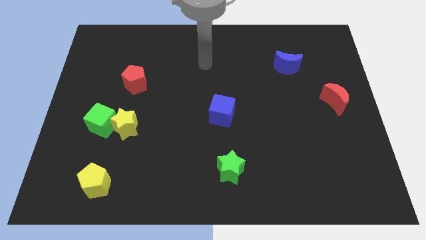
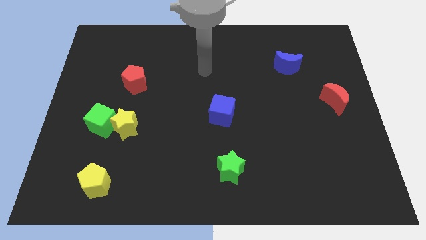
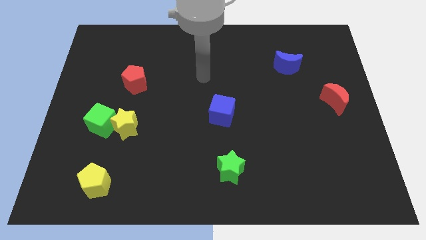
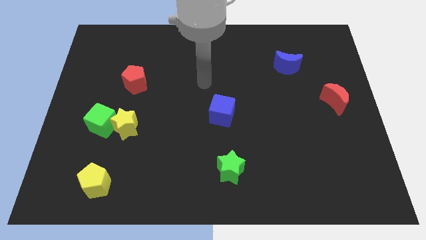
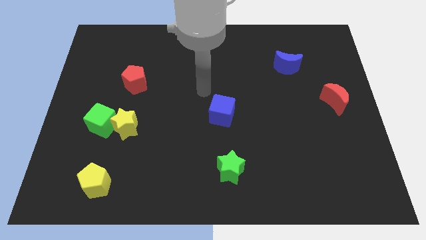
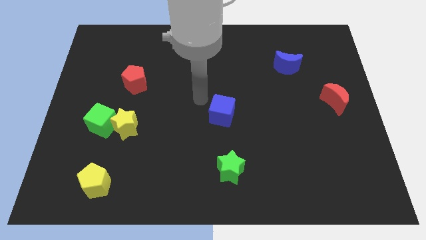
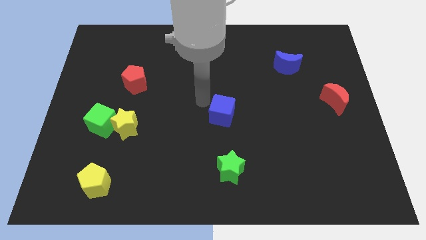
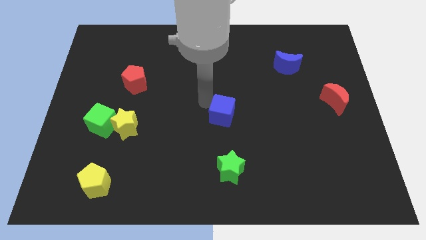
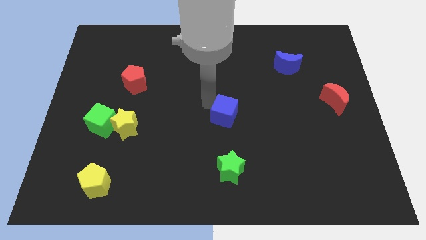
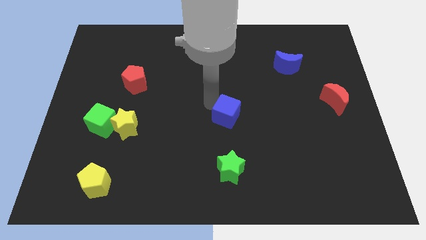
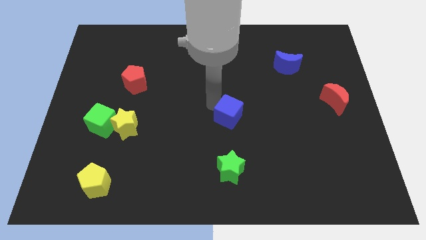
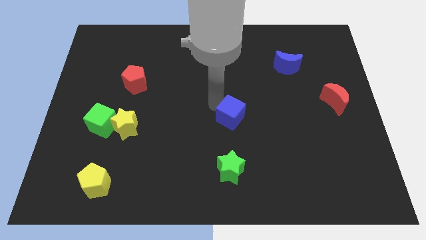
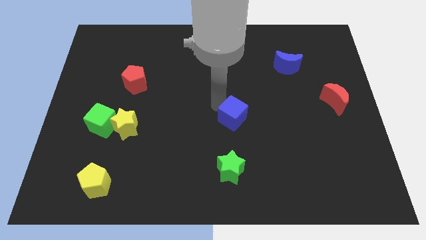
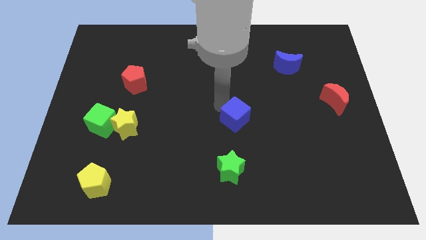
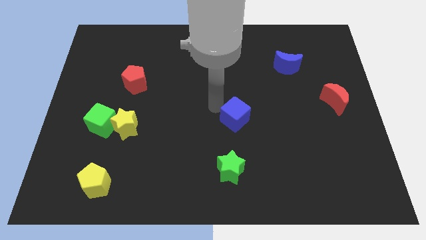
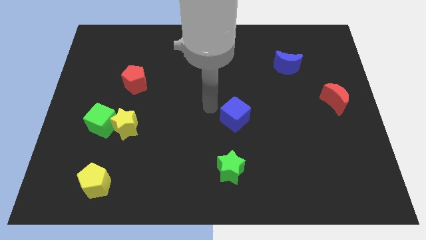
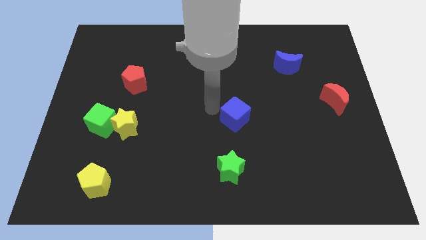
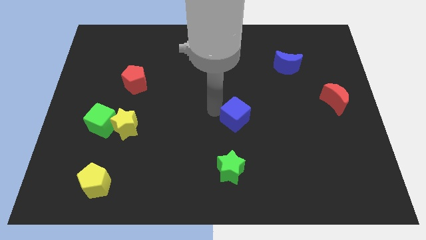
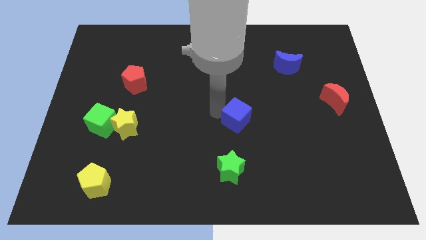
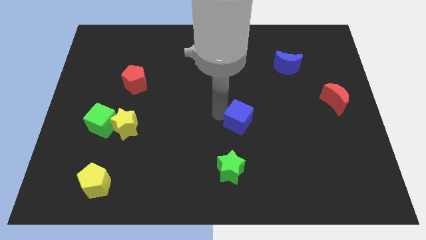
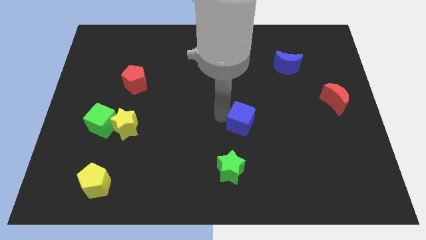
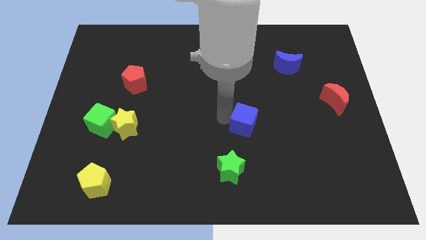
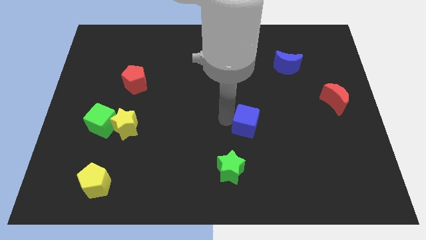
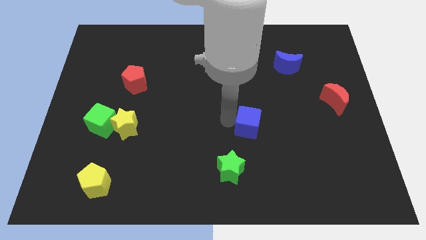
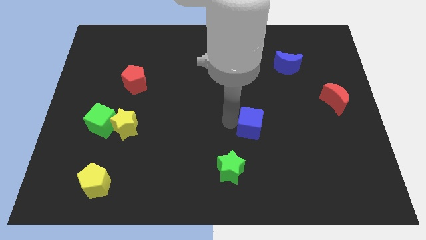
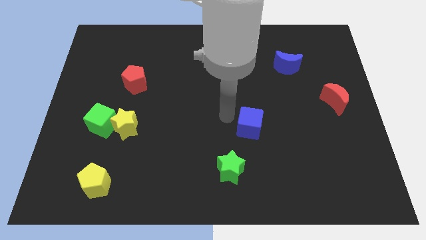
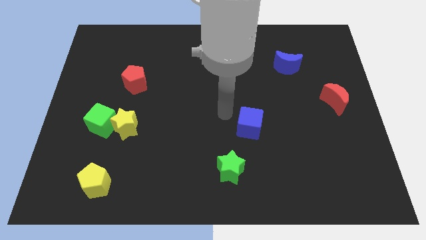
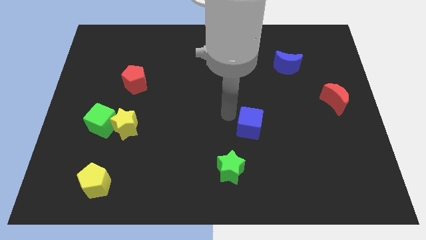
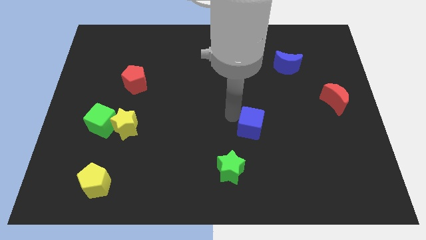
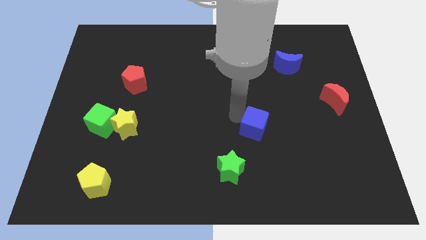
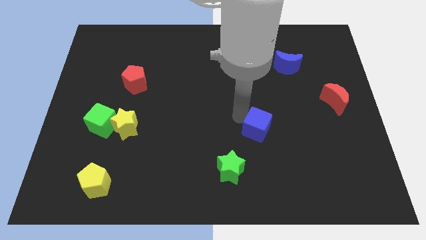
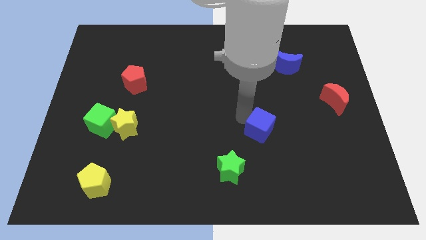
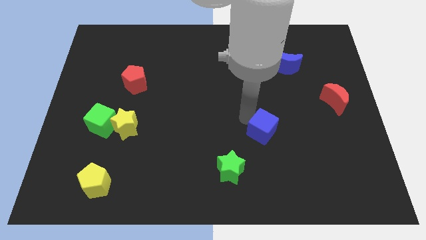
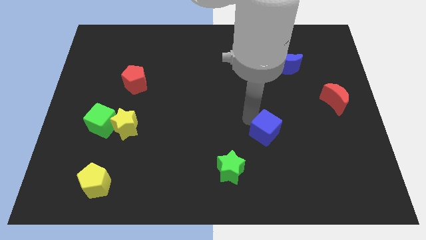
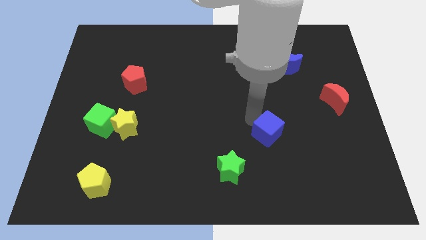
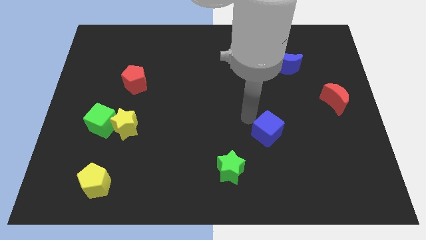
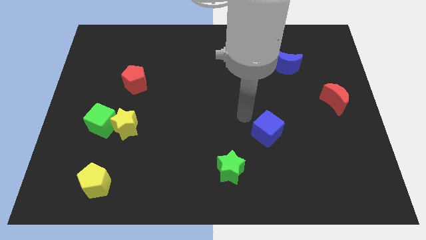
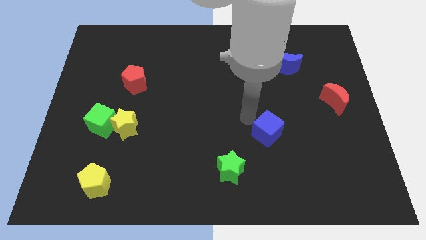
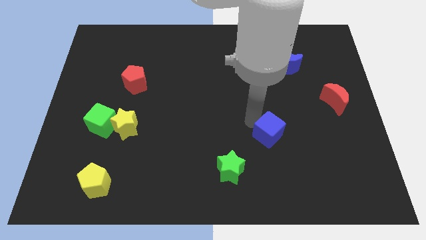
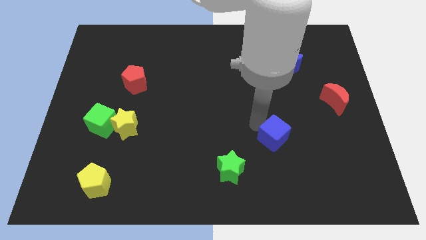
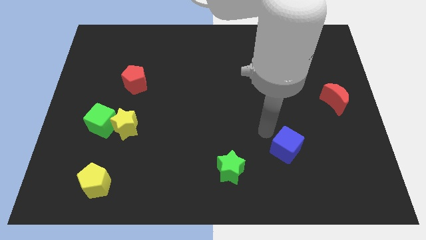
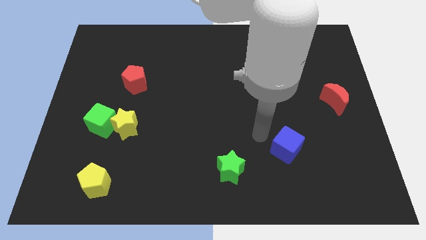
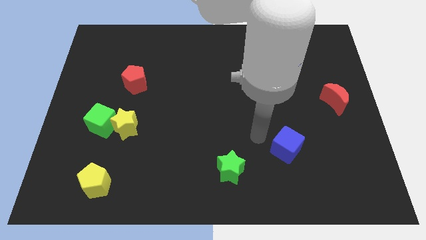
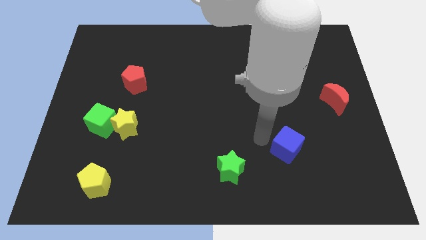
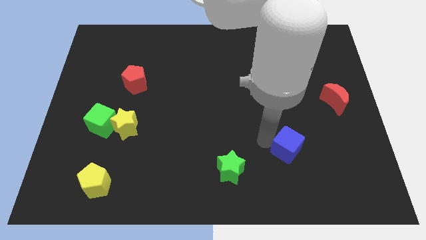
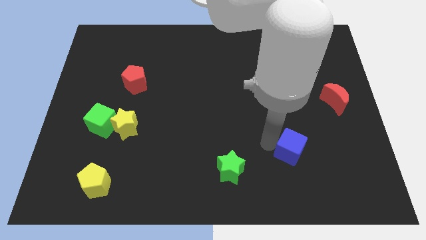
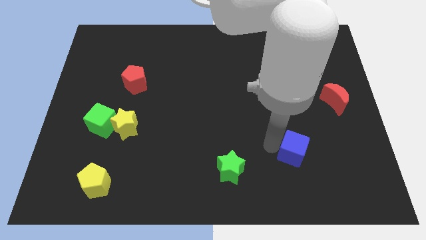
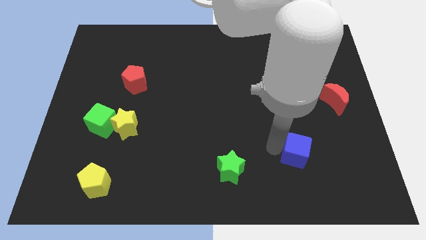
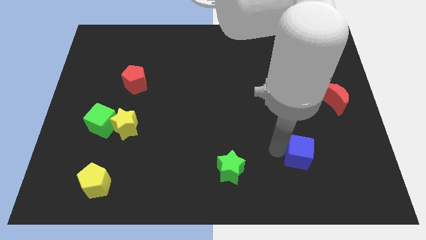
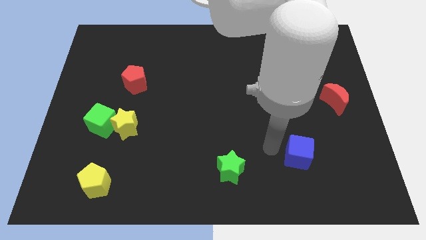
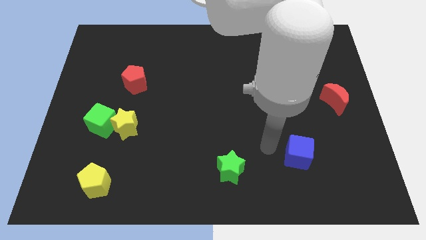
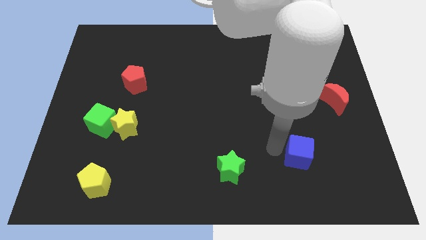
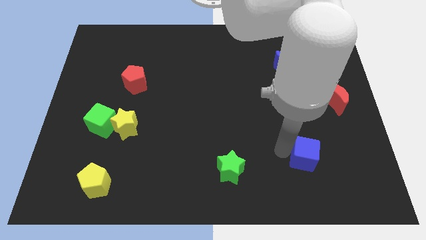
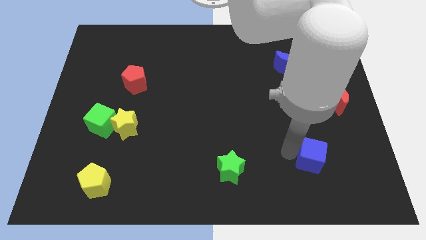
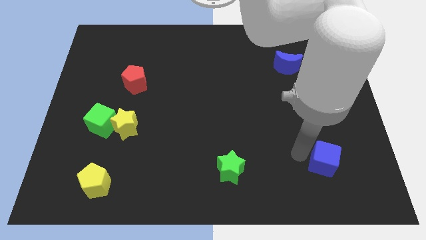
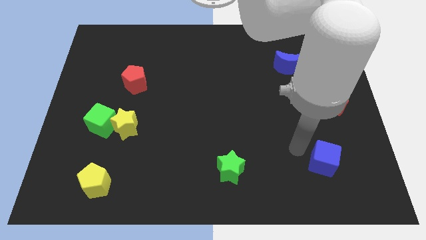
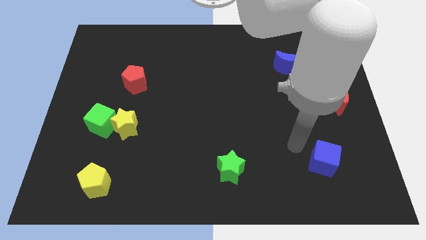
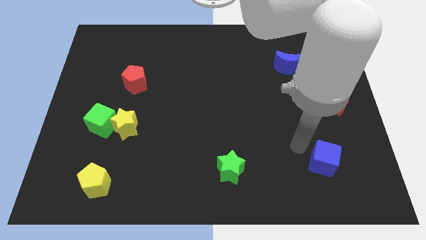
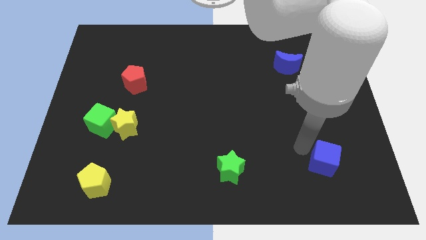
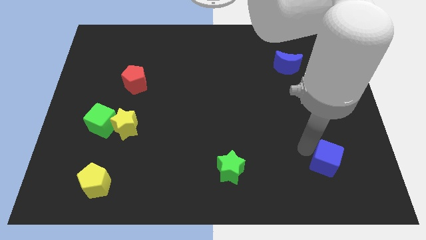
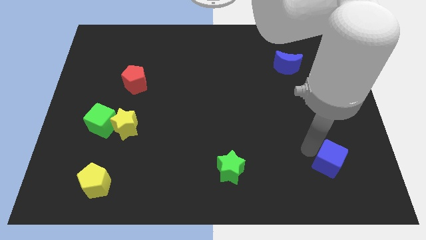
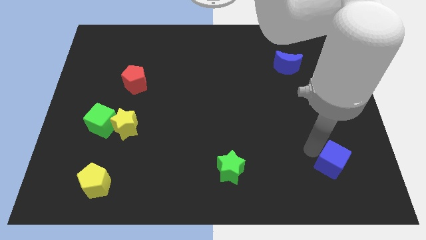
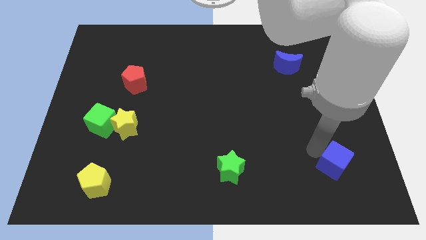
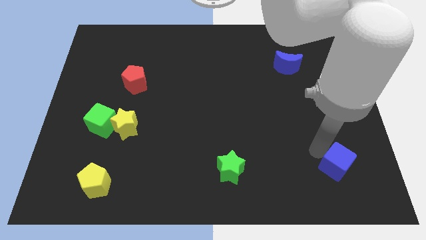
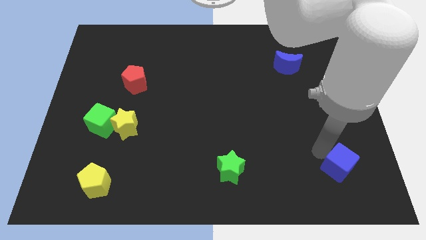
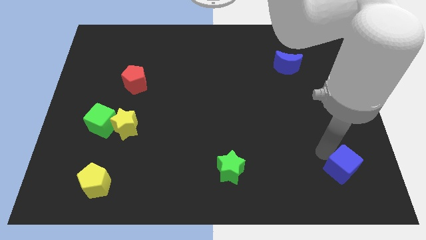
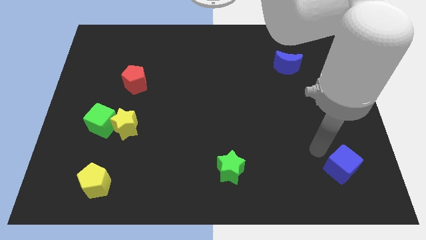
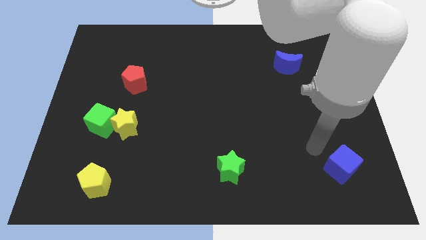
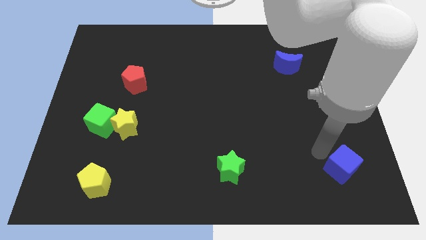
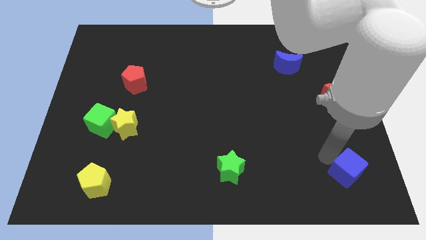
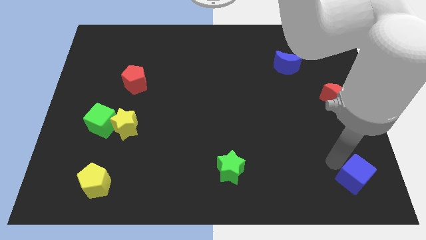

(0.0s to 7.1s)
put the blue cube to the lower right corner
